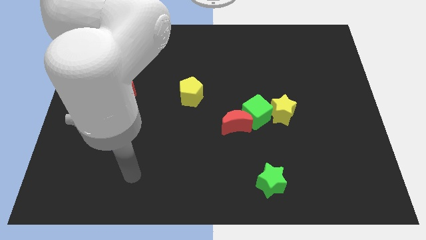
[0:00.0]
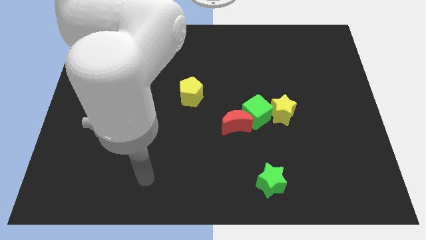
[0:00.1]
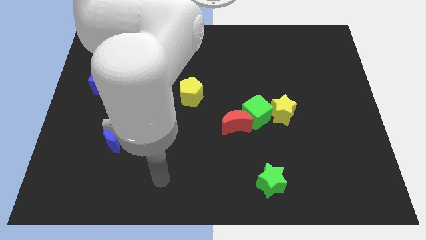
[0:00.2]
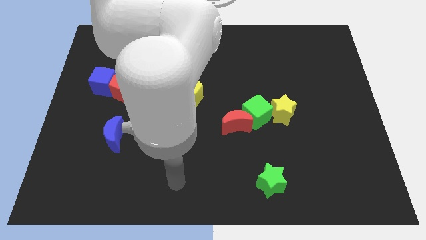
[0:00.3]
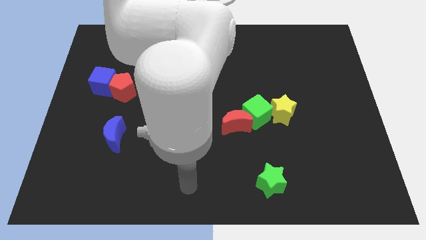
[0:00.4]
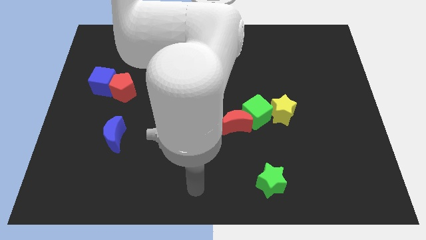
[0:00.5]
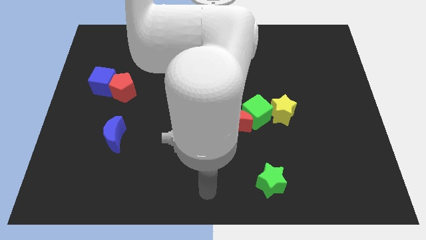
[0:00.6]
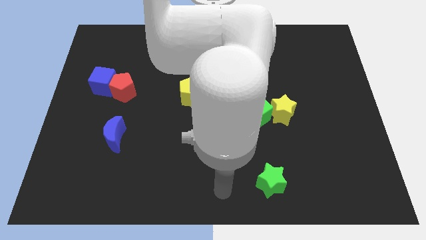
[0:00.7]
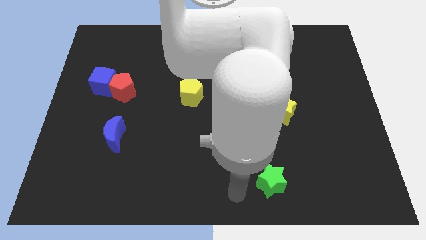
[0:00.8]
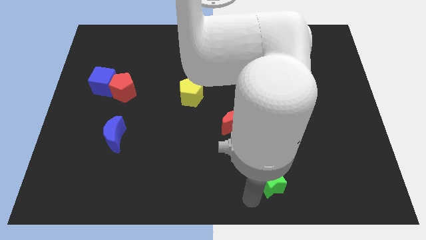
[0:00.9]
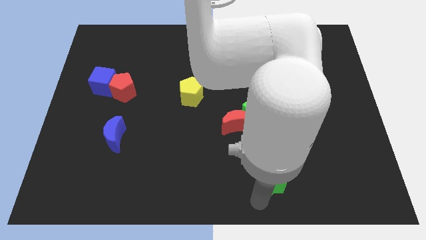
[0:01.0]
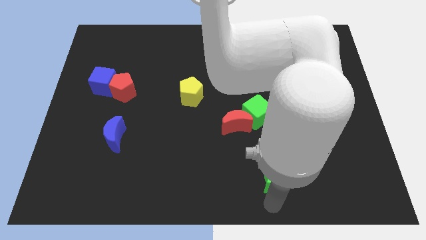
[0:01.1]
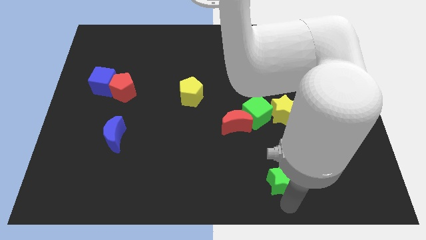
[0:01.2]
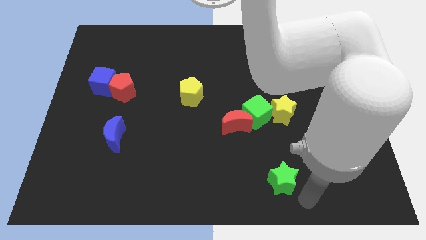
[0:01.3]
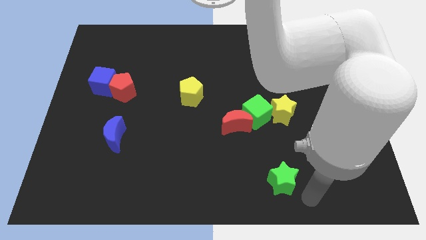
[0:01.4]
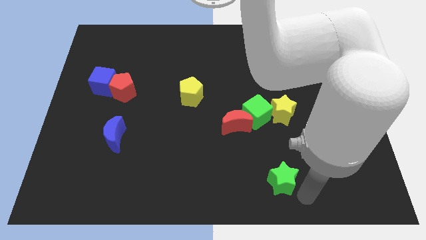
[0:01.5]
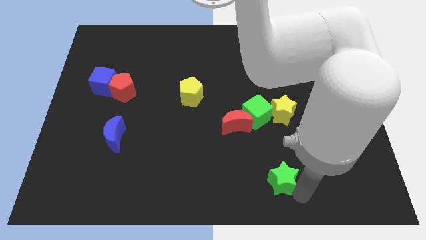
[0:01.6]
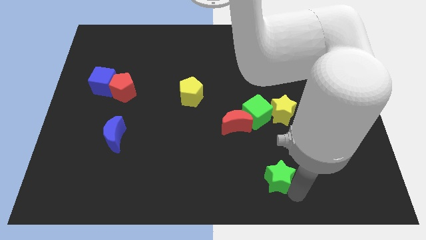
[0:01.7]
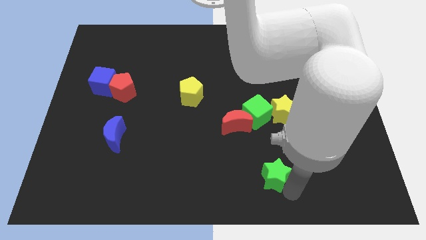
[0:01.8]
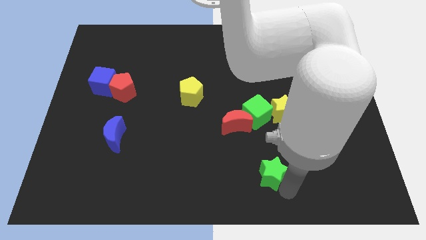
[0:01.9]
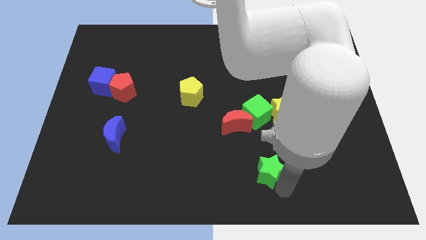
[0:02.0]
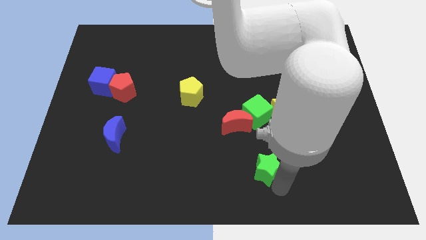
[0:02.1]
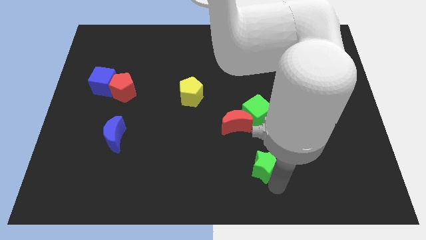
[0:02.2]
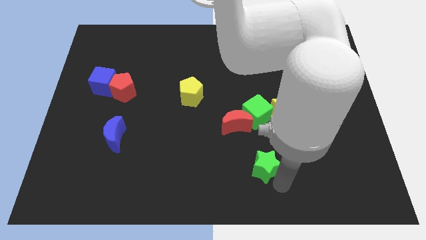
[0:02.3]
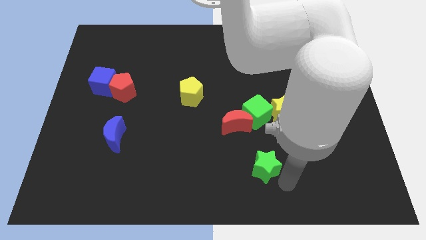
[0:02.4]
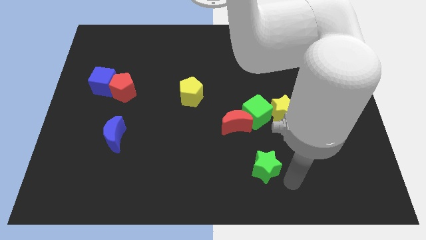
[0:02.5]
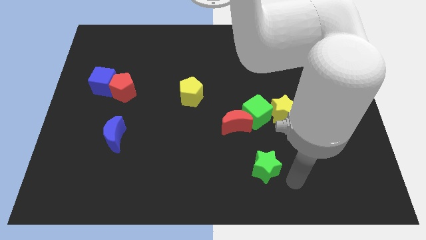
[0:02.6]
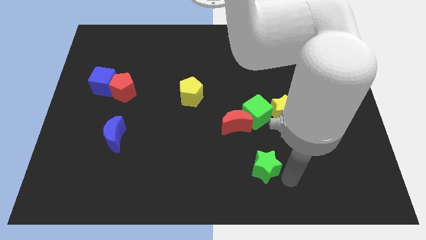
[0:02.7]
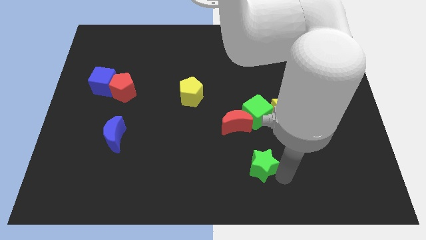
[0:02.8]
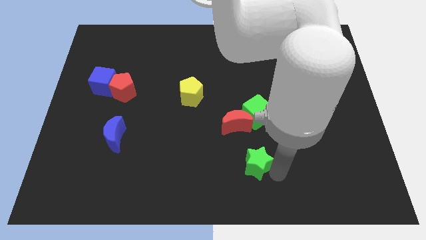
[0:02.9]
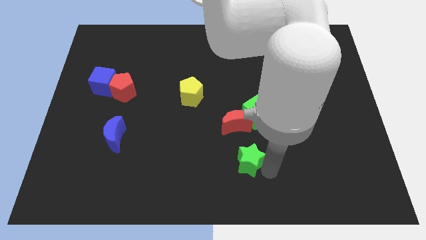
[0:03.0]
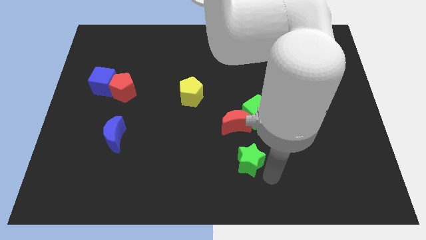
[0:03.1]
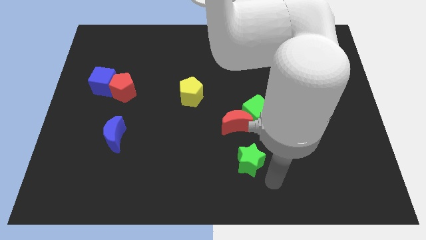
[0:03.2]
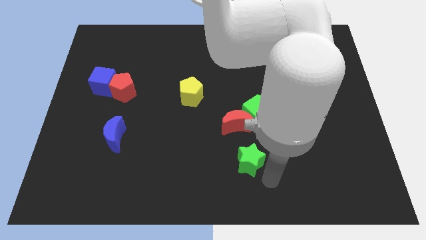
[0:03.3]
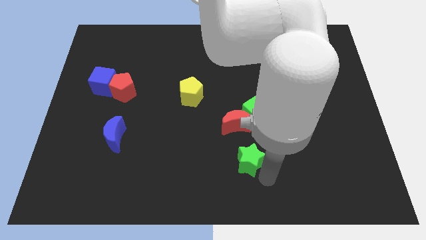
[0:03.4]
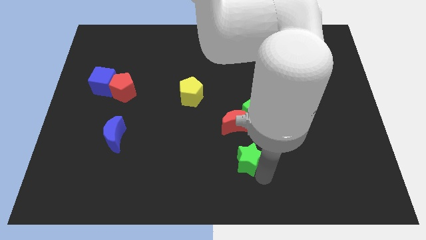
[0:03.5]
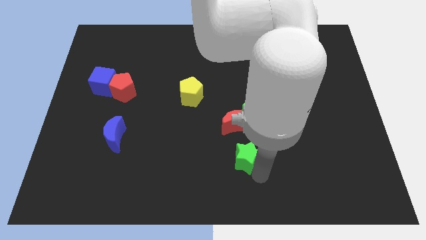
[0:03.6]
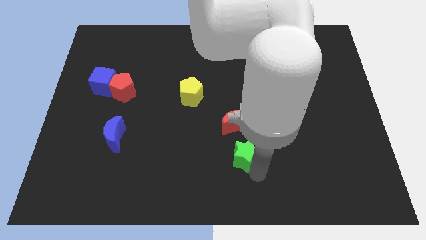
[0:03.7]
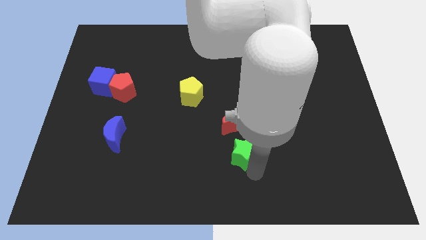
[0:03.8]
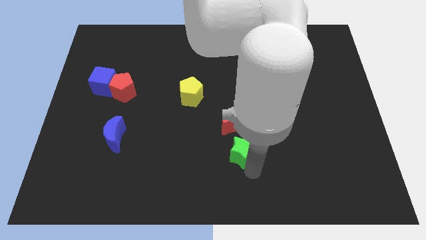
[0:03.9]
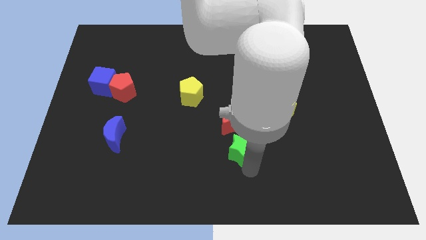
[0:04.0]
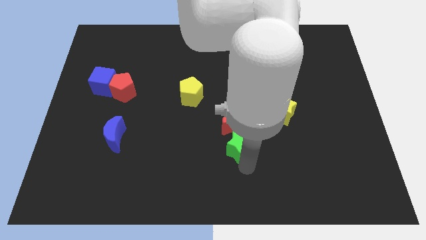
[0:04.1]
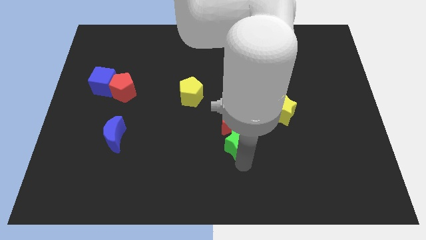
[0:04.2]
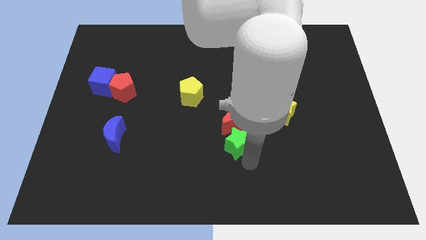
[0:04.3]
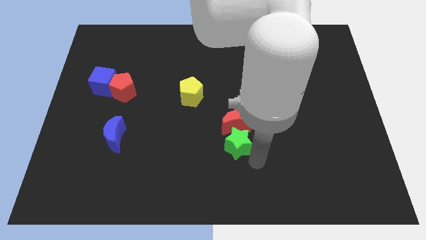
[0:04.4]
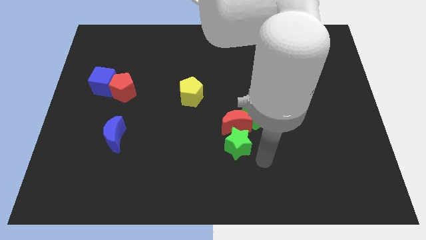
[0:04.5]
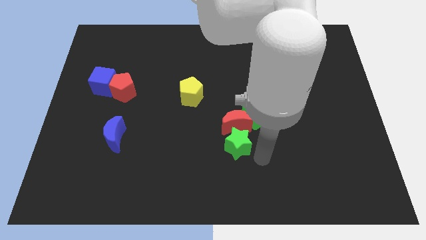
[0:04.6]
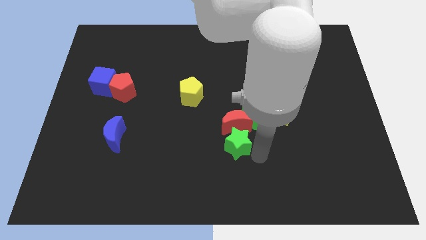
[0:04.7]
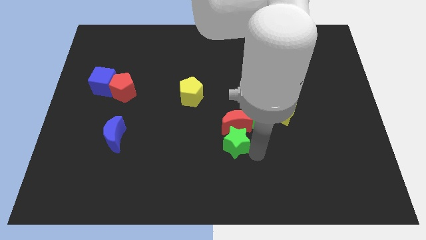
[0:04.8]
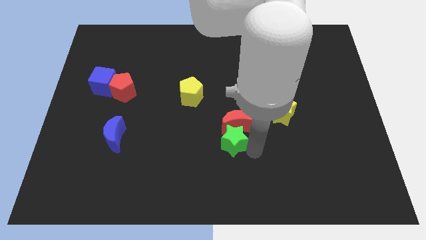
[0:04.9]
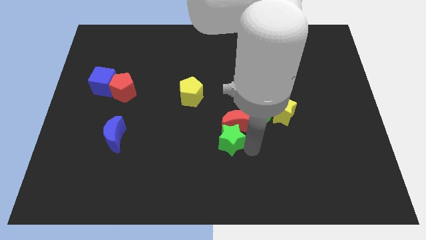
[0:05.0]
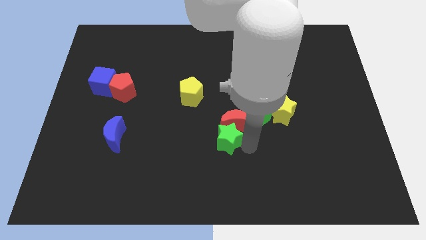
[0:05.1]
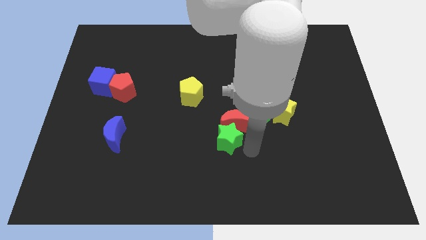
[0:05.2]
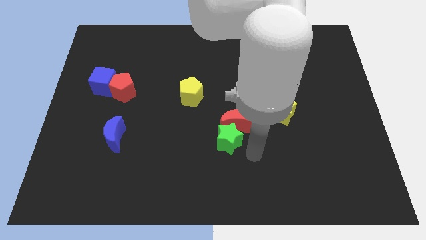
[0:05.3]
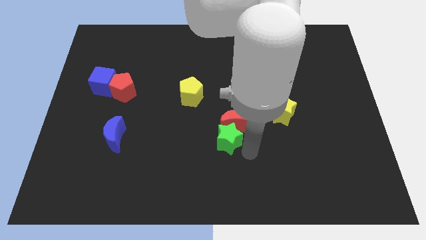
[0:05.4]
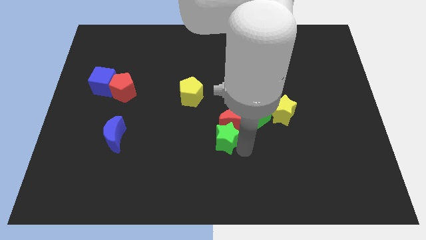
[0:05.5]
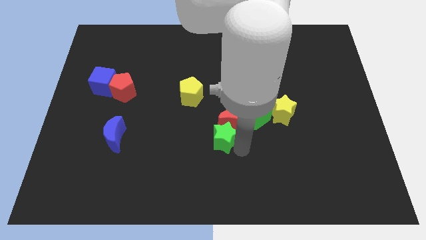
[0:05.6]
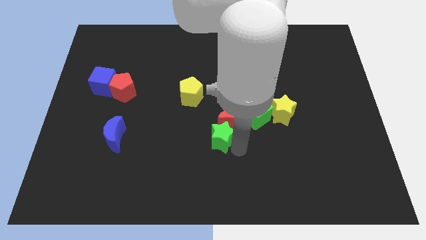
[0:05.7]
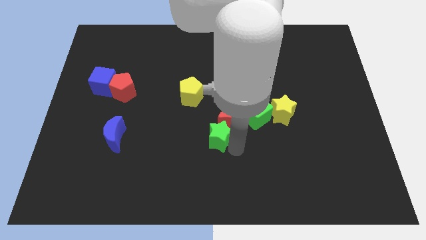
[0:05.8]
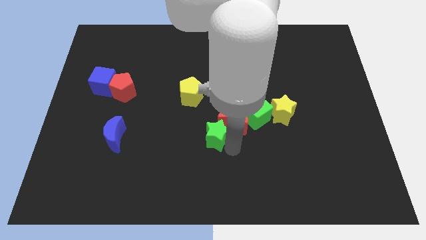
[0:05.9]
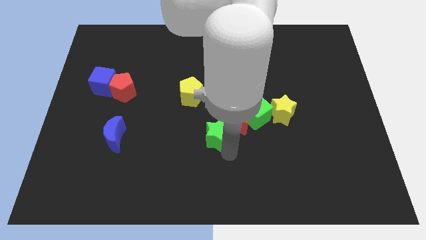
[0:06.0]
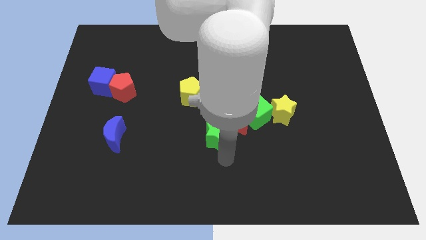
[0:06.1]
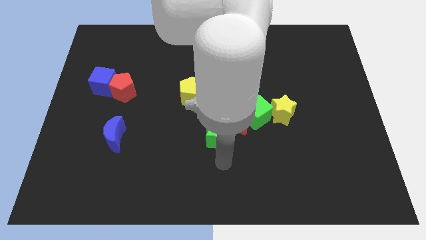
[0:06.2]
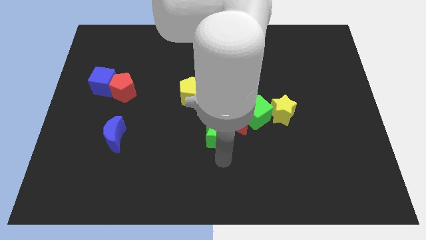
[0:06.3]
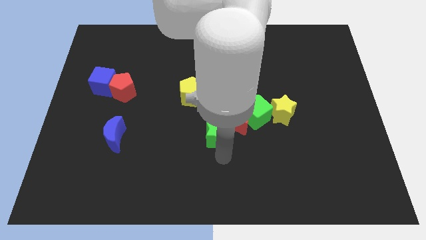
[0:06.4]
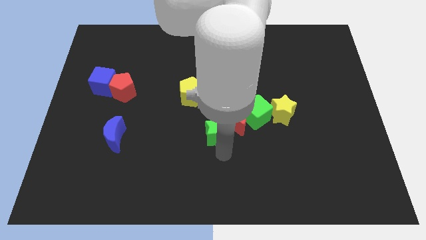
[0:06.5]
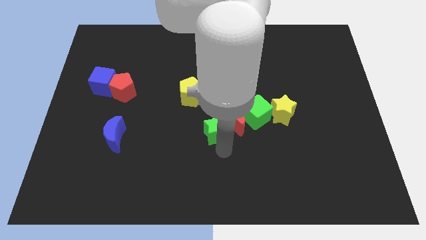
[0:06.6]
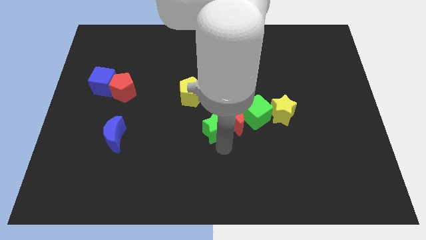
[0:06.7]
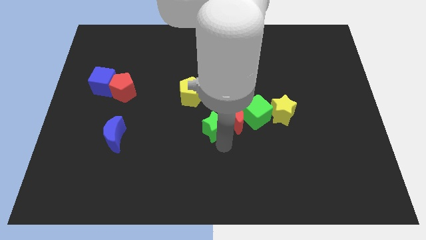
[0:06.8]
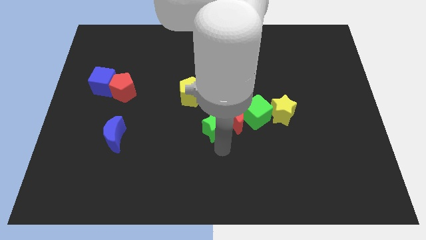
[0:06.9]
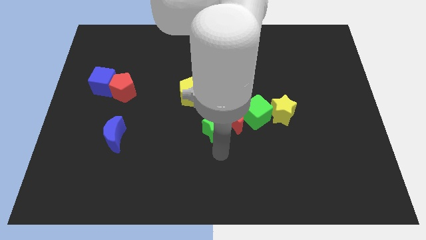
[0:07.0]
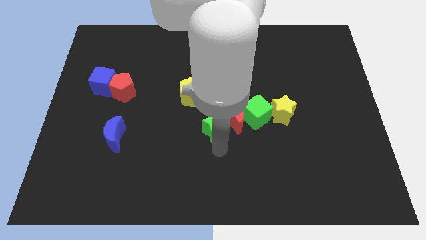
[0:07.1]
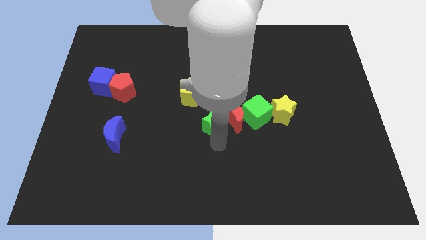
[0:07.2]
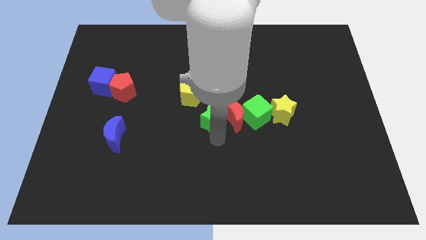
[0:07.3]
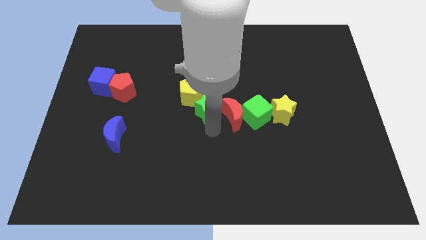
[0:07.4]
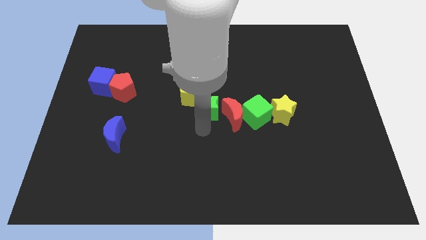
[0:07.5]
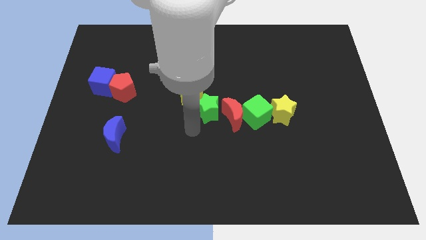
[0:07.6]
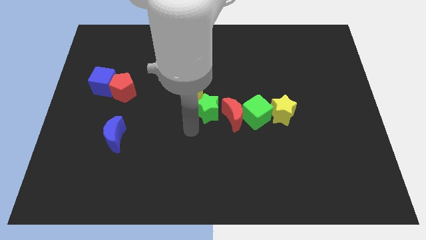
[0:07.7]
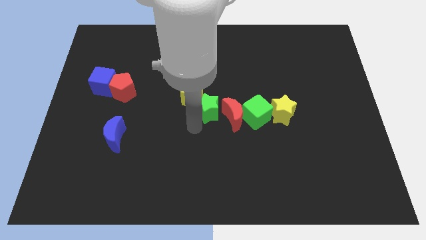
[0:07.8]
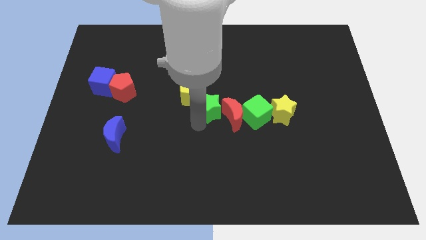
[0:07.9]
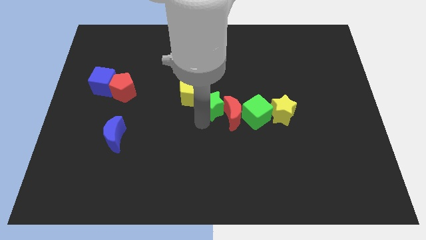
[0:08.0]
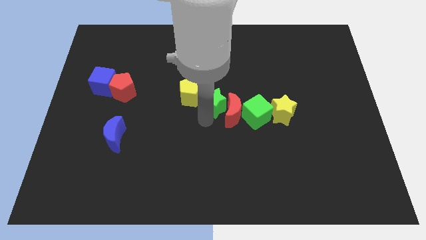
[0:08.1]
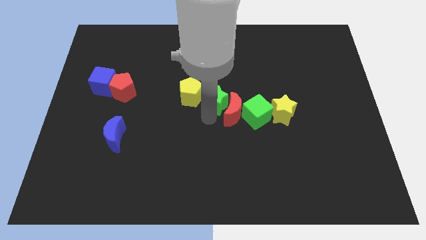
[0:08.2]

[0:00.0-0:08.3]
slide the green star above the red moon
